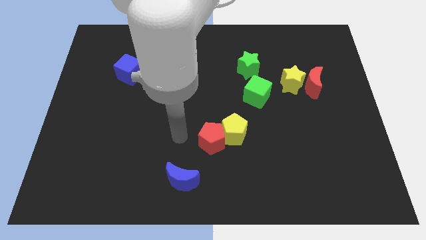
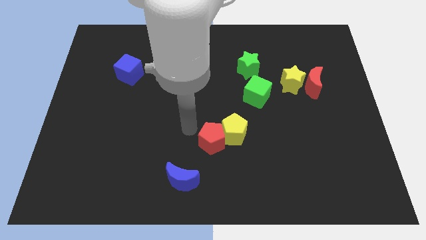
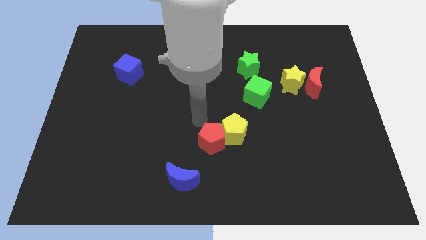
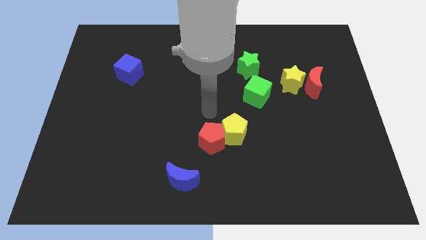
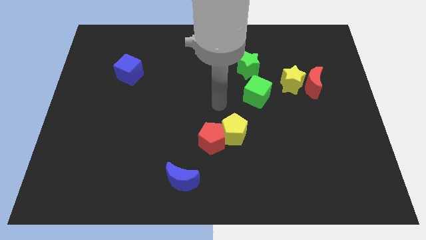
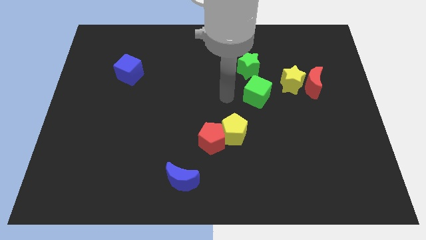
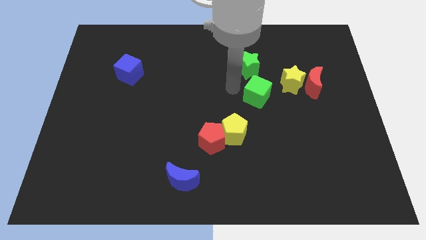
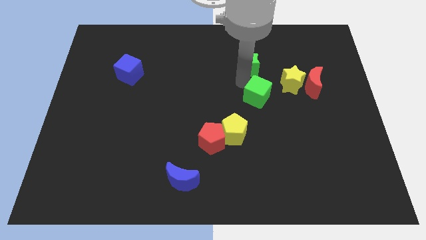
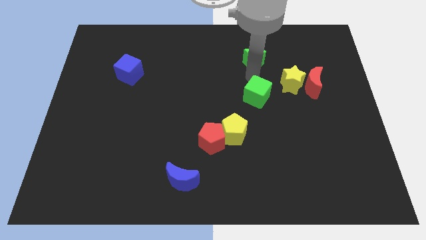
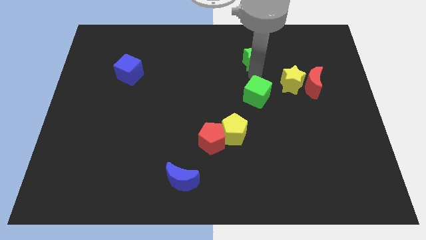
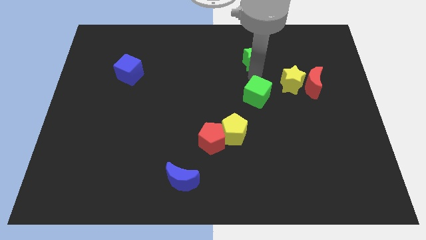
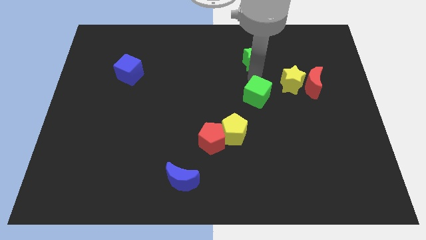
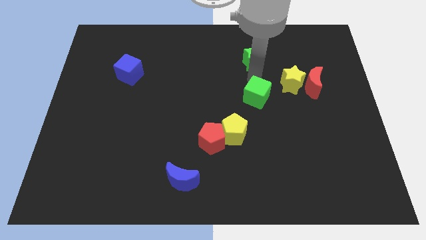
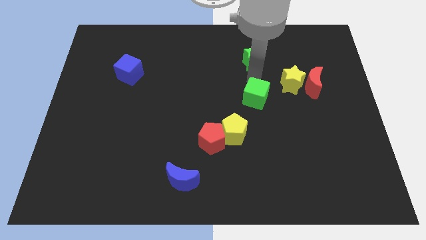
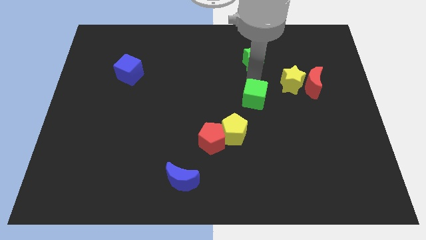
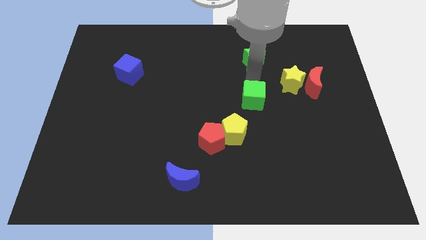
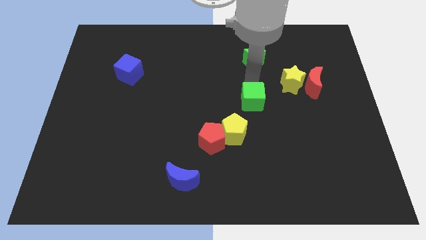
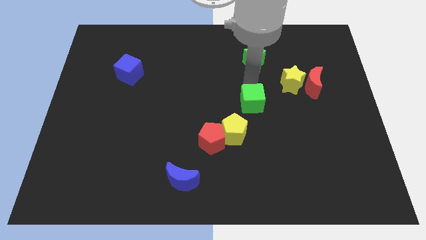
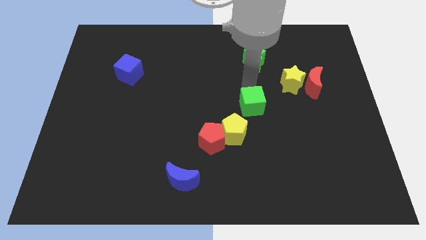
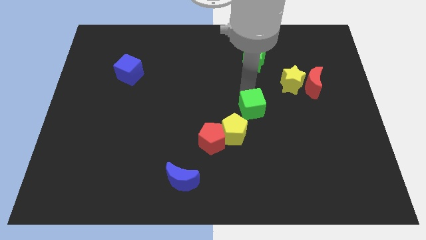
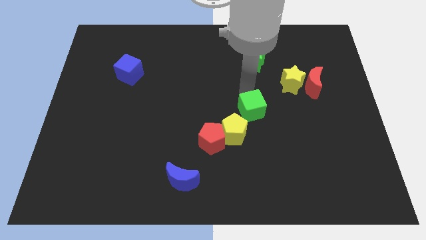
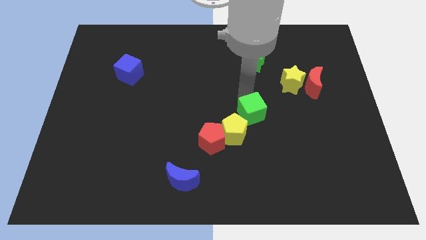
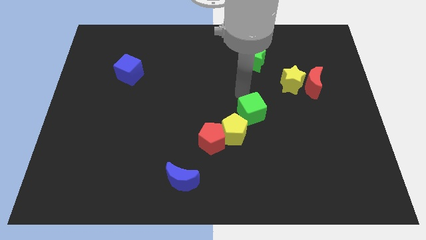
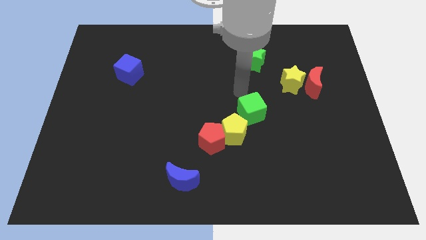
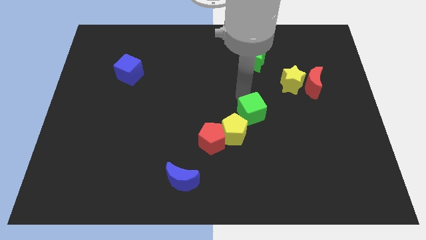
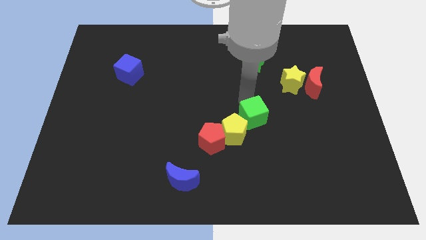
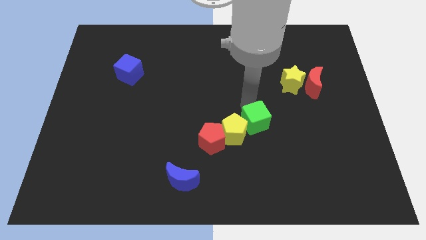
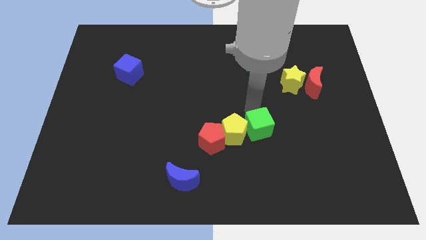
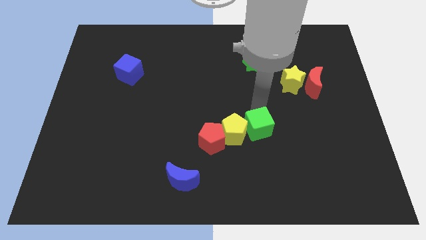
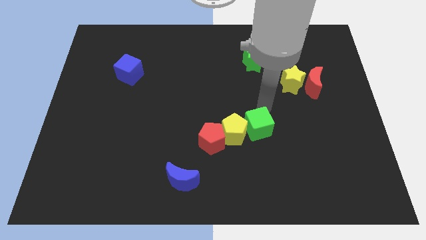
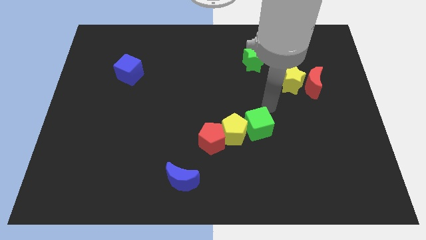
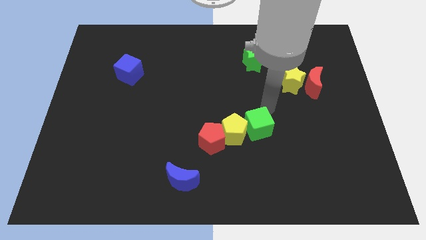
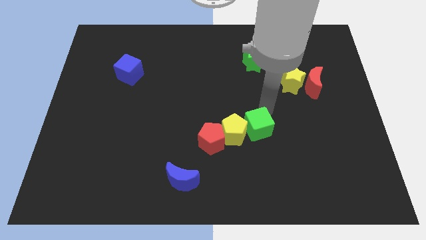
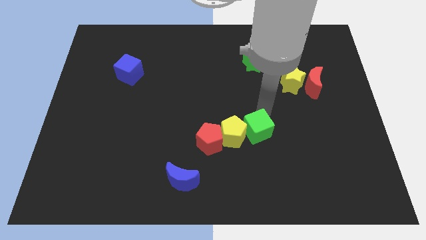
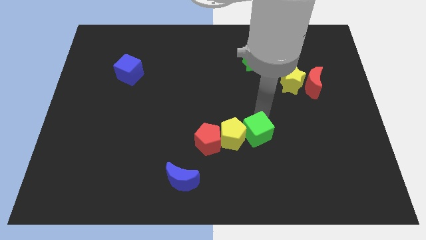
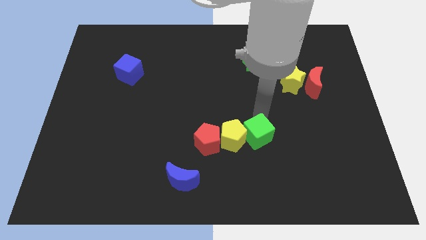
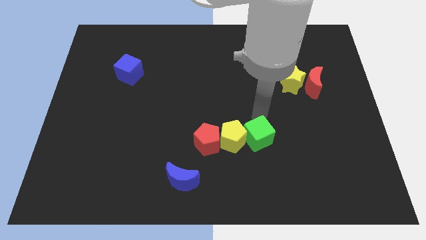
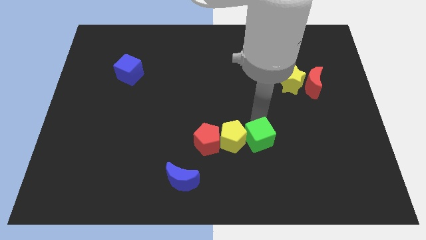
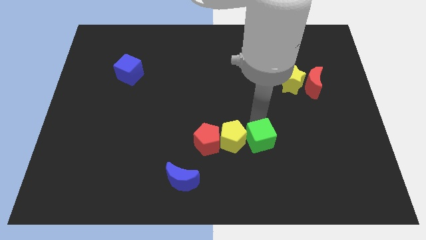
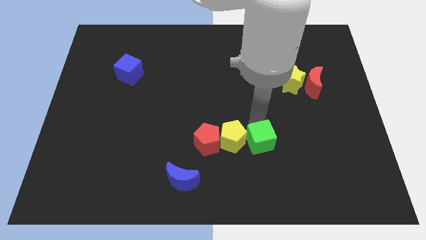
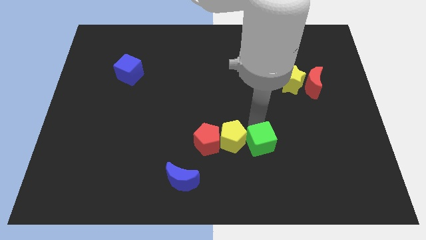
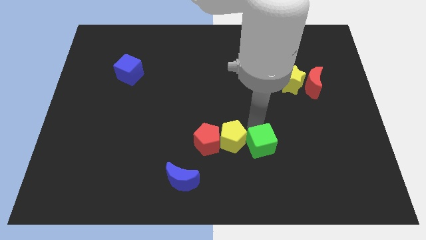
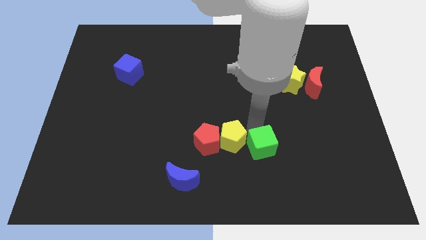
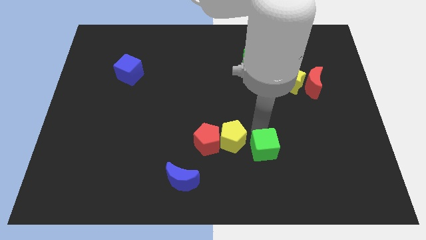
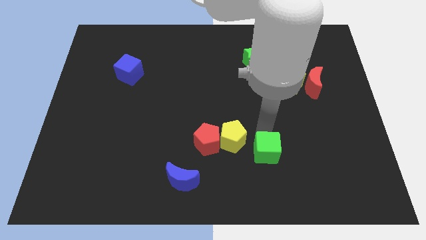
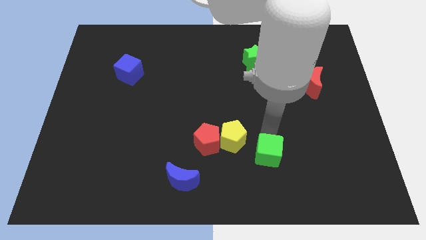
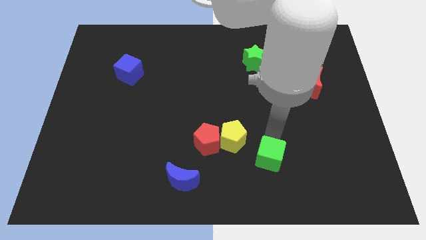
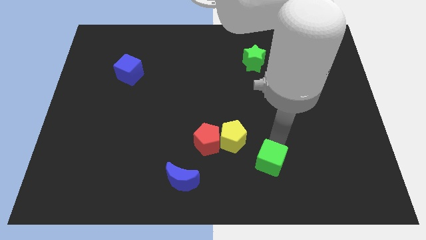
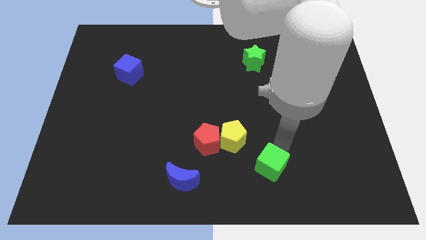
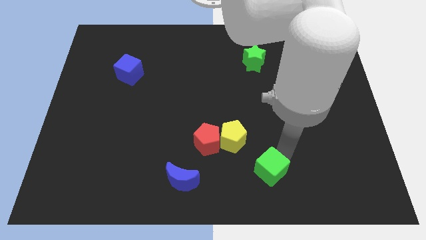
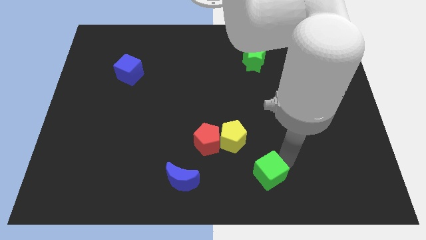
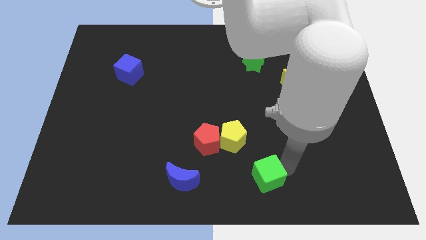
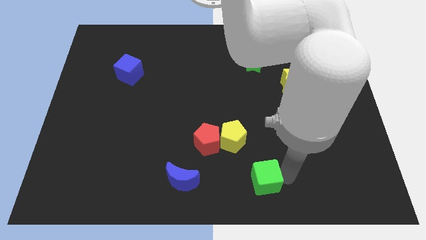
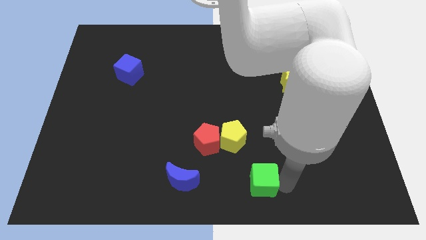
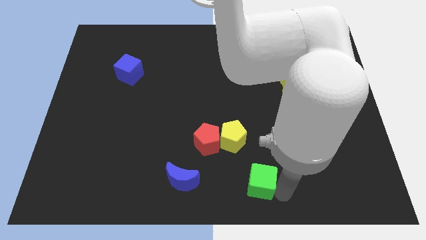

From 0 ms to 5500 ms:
slide the green cube to the right of the blue moon

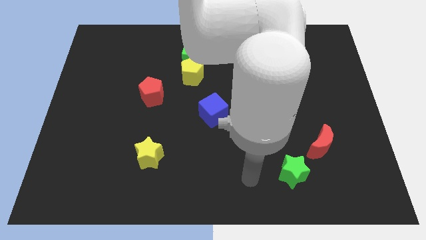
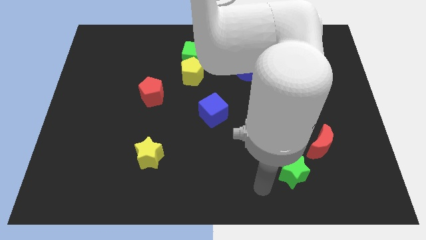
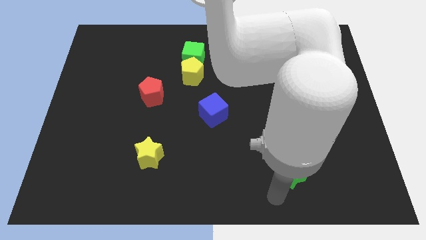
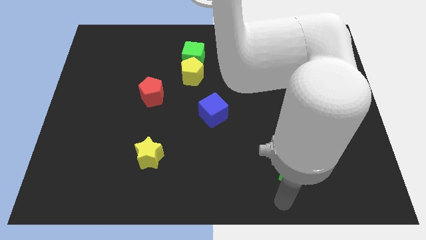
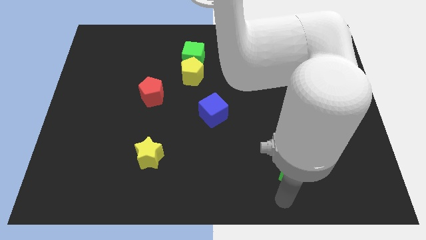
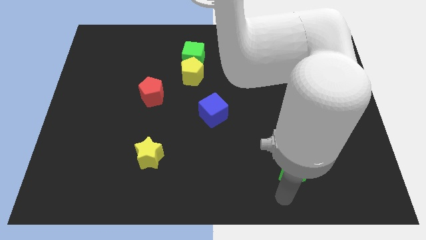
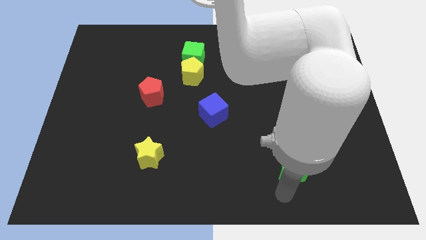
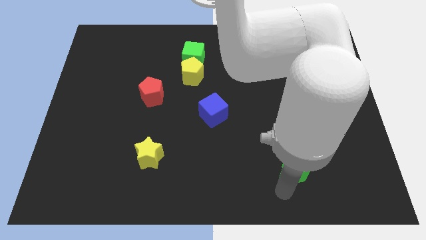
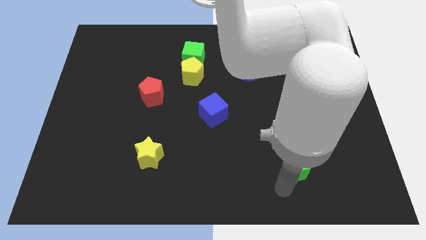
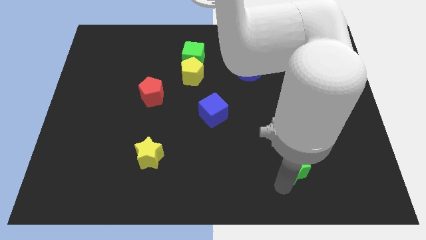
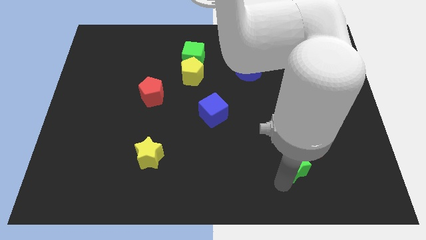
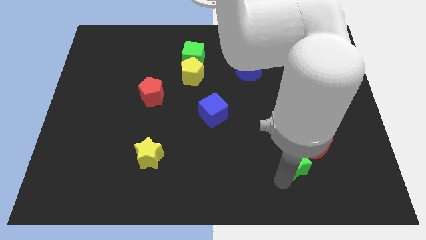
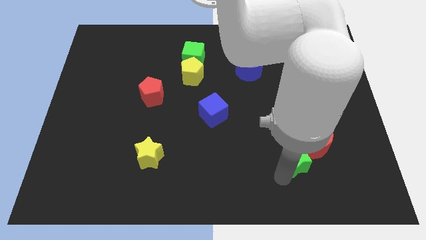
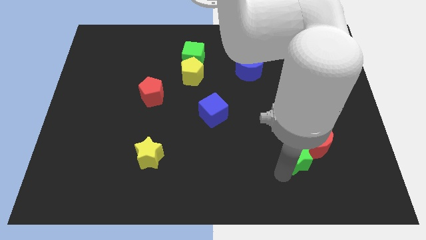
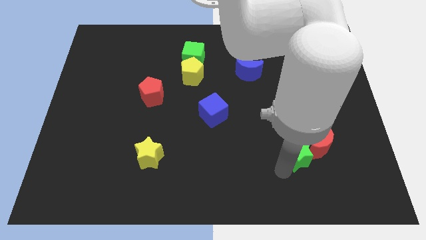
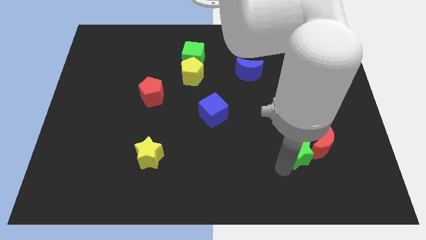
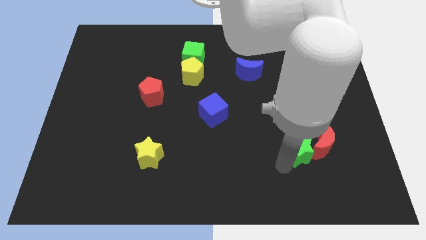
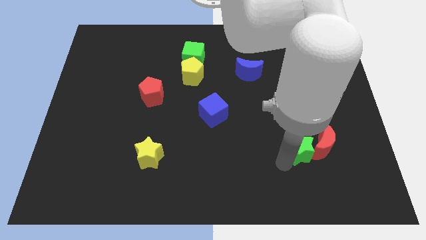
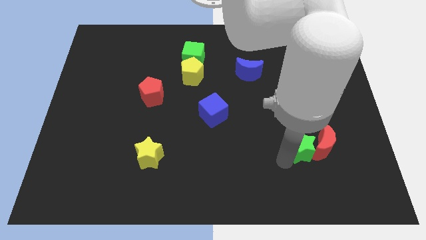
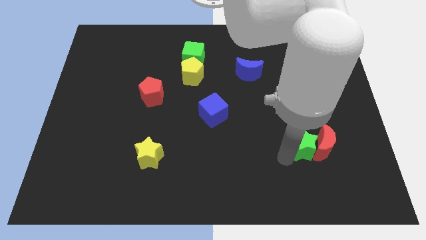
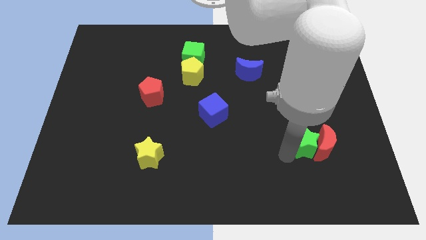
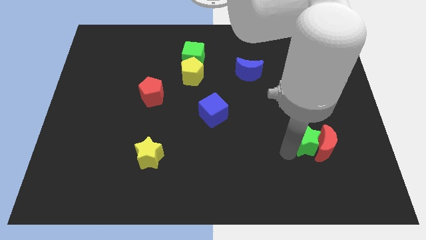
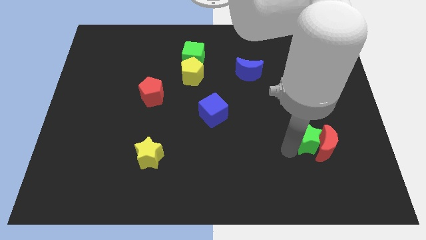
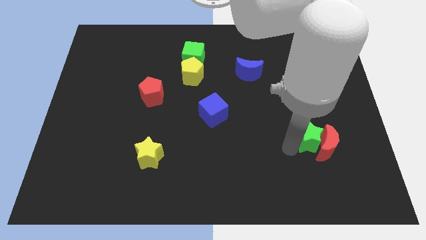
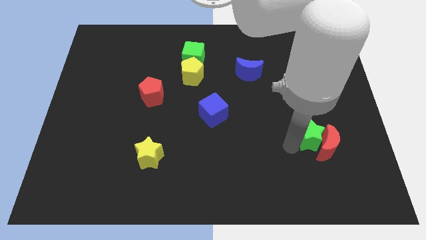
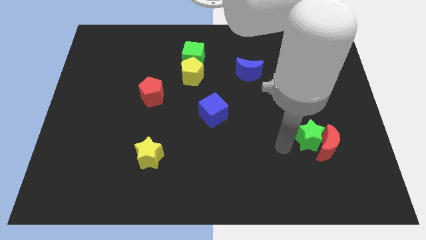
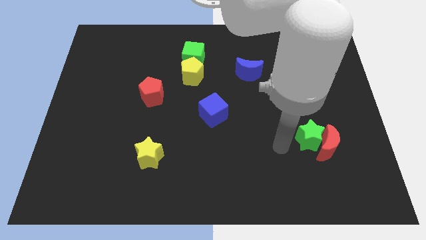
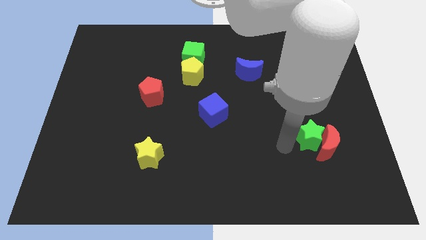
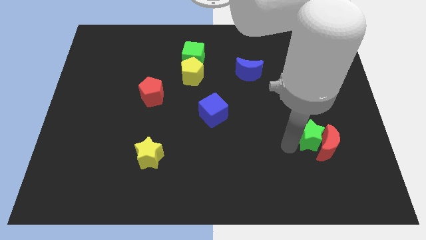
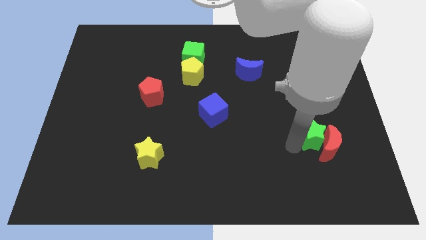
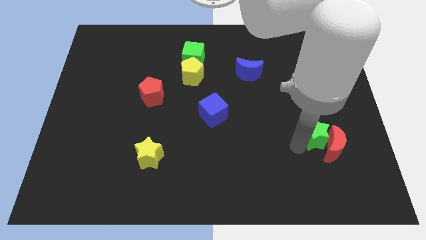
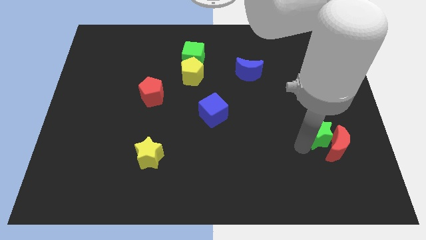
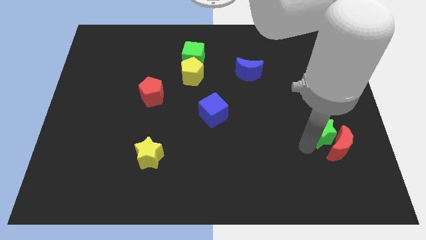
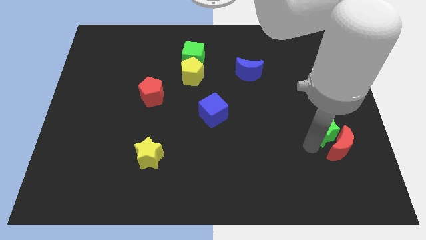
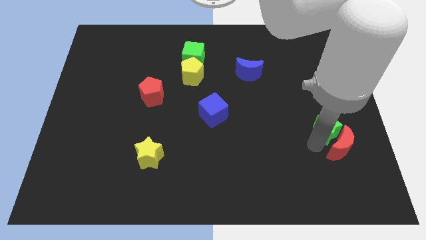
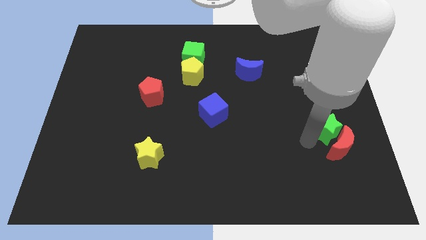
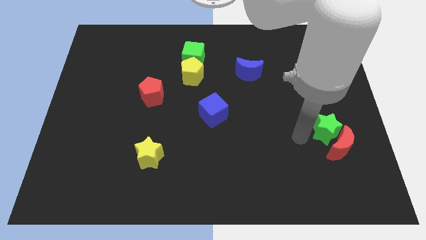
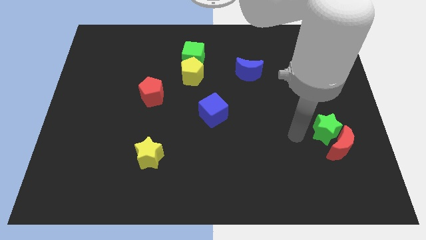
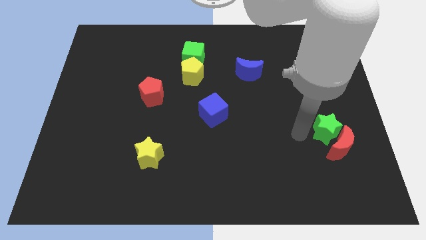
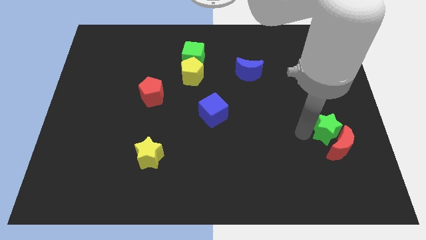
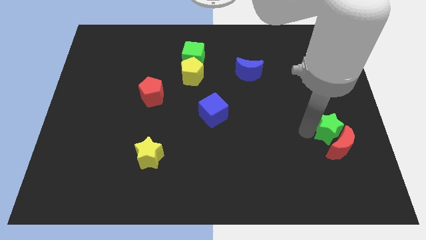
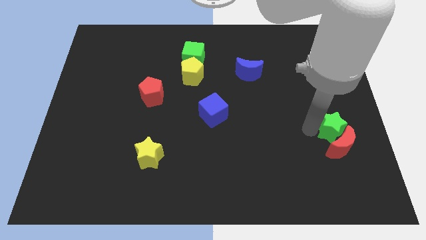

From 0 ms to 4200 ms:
push the green star to the top right side of the red moon
